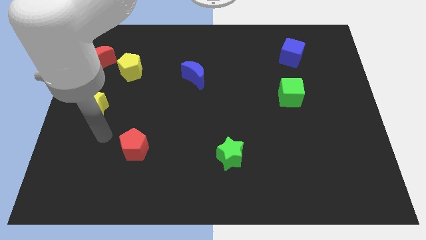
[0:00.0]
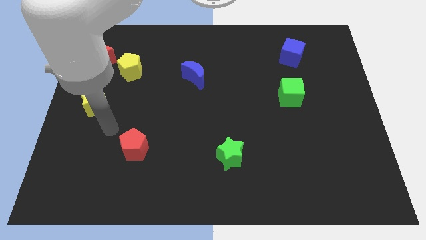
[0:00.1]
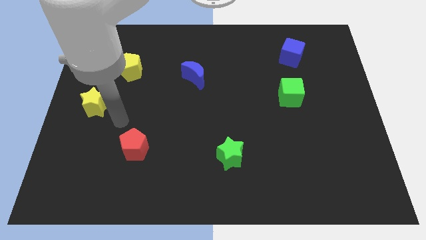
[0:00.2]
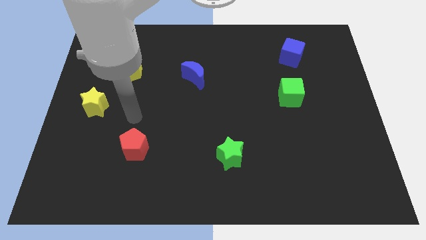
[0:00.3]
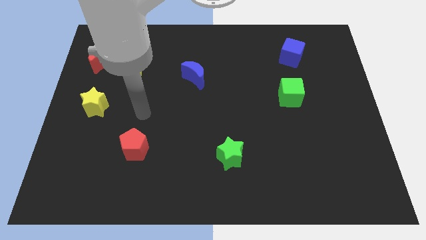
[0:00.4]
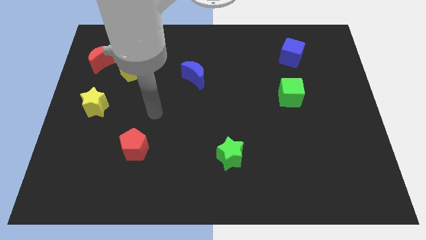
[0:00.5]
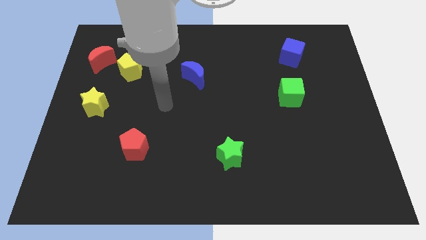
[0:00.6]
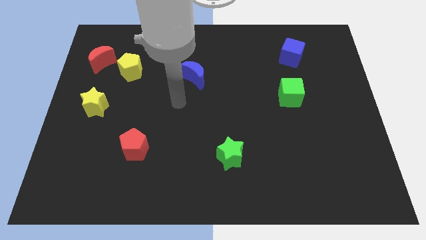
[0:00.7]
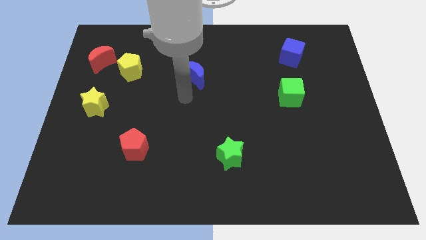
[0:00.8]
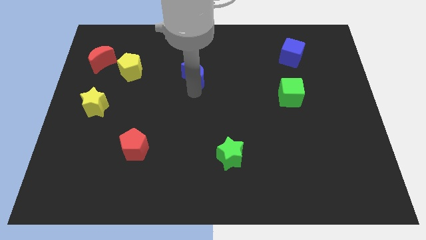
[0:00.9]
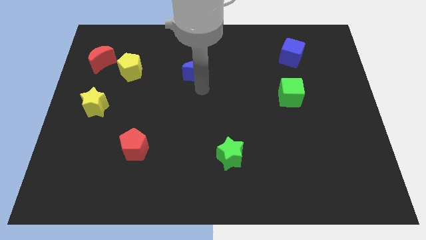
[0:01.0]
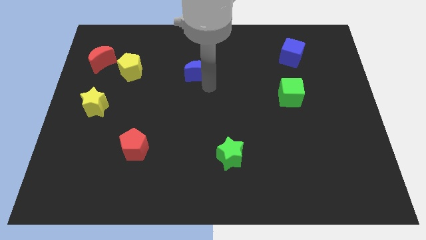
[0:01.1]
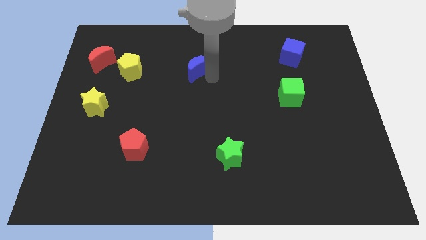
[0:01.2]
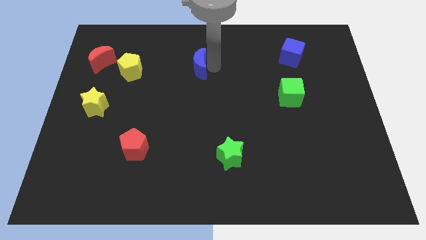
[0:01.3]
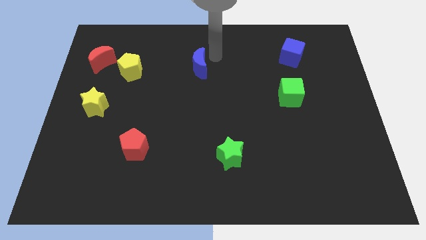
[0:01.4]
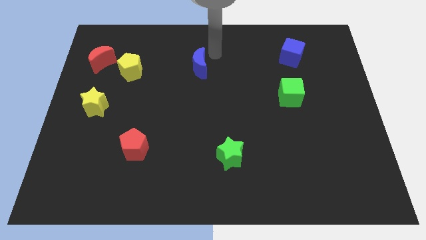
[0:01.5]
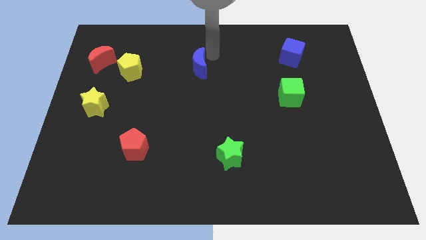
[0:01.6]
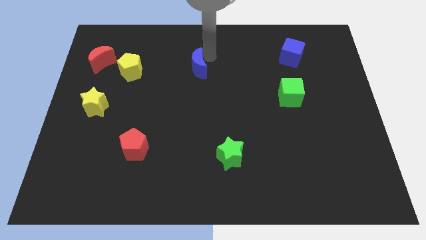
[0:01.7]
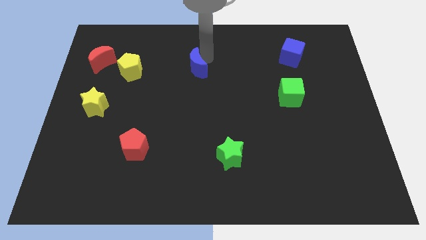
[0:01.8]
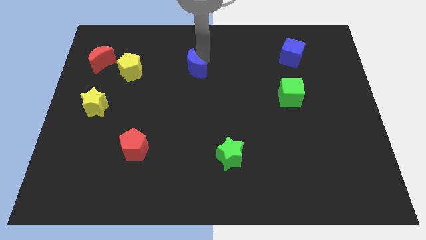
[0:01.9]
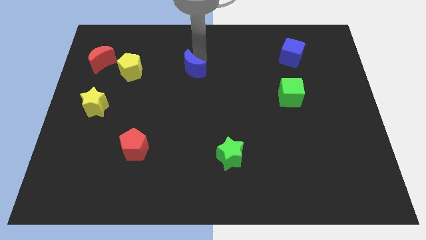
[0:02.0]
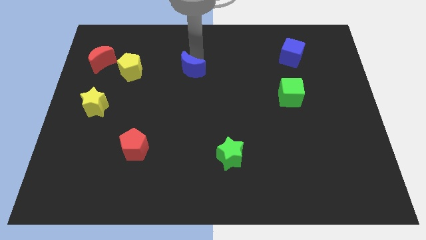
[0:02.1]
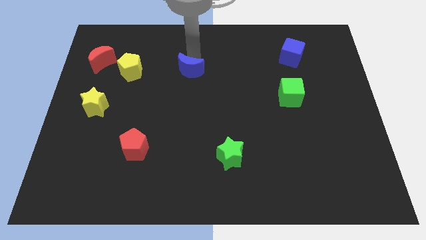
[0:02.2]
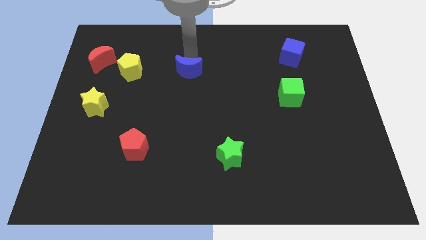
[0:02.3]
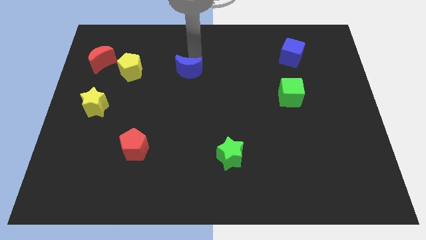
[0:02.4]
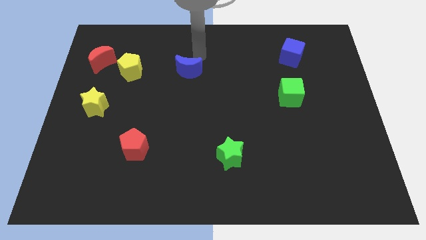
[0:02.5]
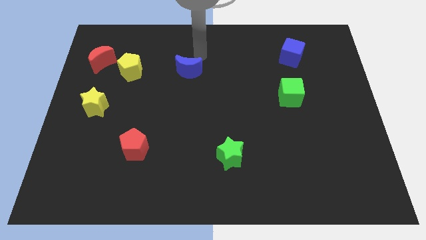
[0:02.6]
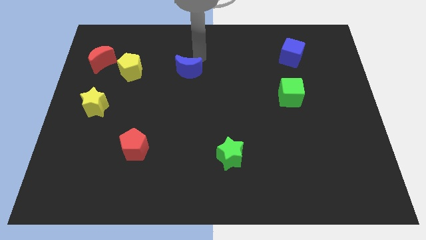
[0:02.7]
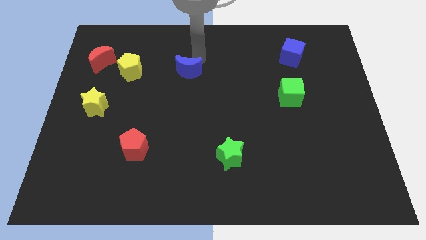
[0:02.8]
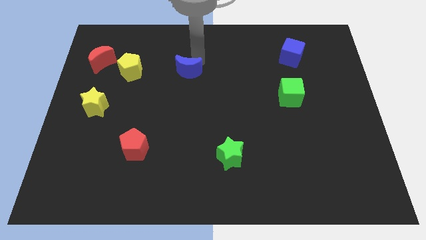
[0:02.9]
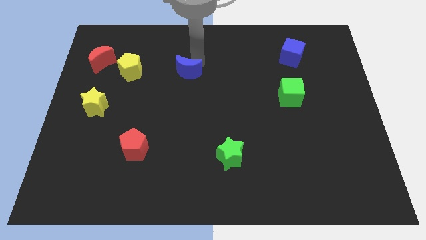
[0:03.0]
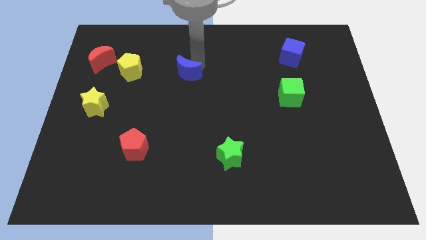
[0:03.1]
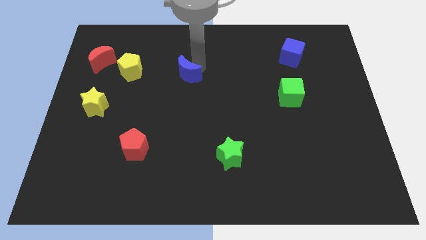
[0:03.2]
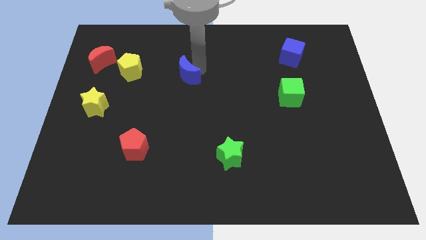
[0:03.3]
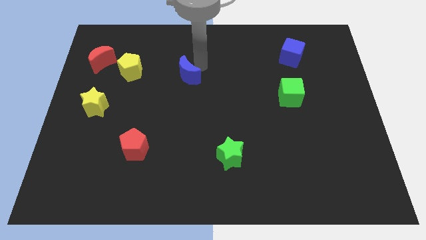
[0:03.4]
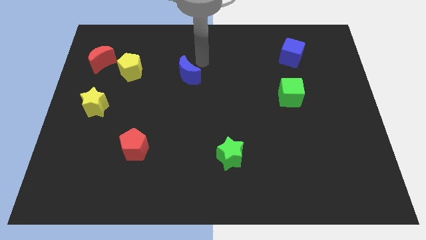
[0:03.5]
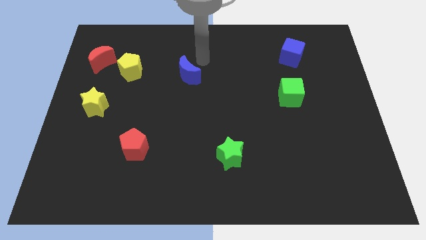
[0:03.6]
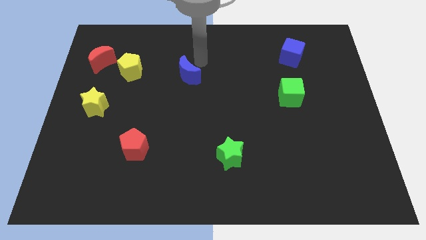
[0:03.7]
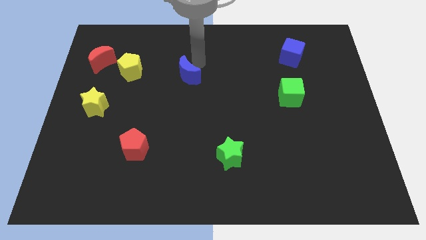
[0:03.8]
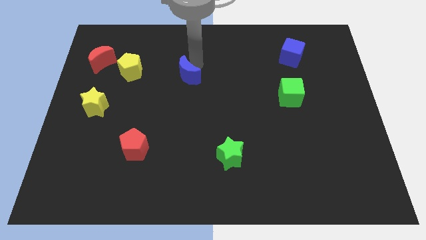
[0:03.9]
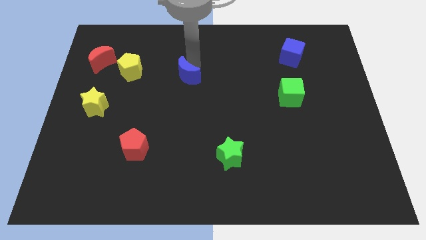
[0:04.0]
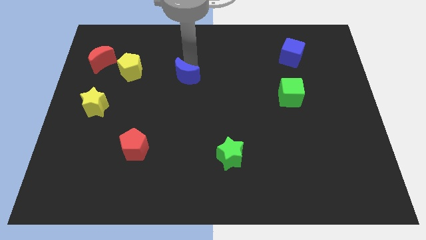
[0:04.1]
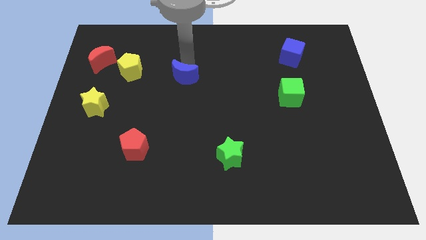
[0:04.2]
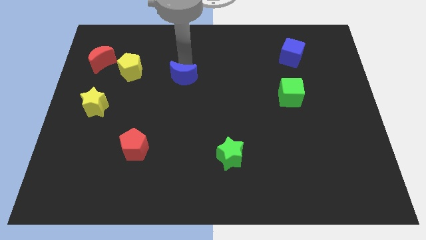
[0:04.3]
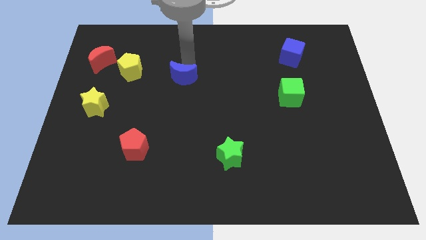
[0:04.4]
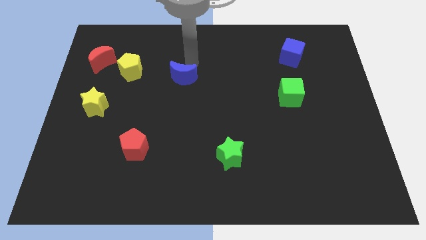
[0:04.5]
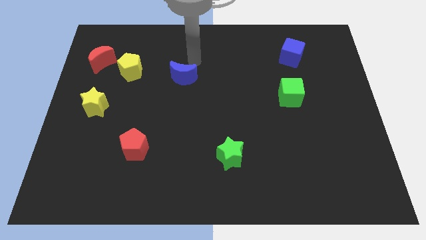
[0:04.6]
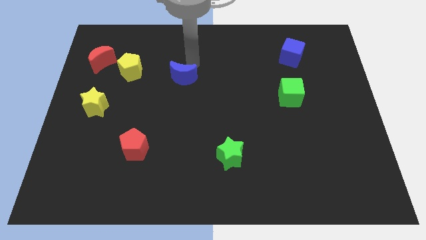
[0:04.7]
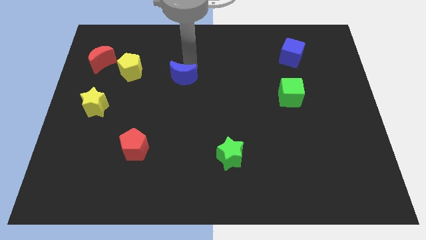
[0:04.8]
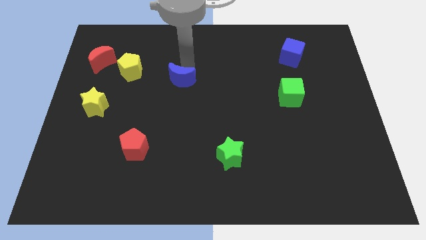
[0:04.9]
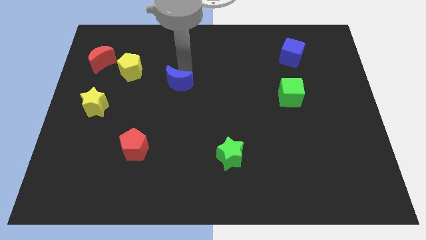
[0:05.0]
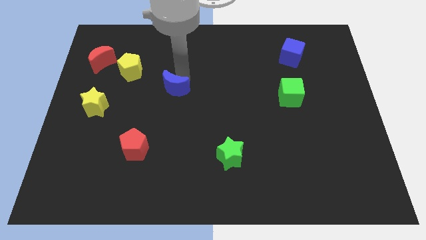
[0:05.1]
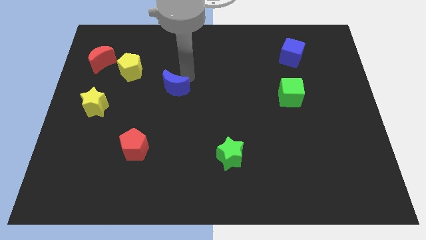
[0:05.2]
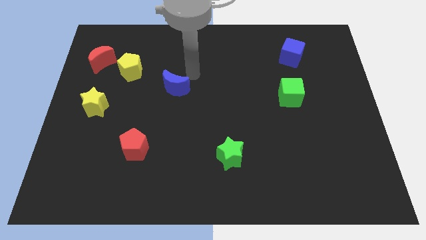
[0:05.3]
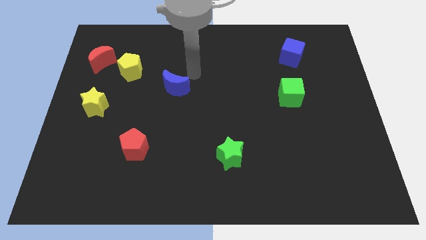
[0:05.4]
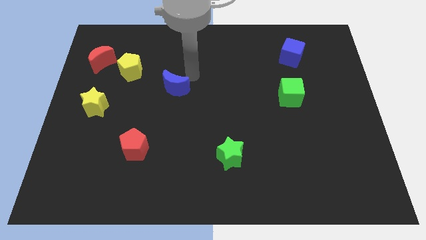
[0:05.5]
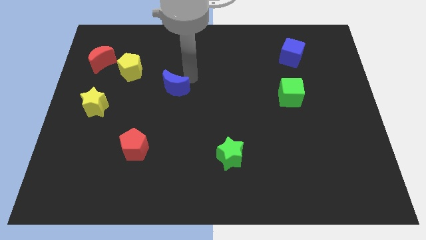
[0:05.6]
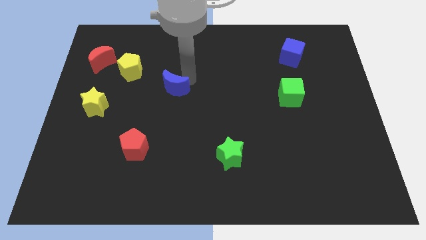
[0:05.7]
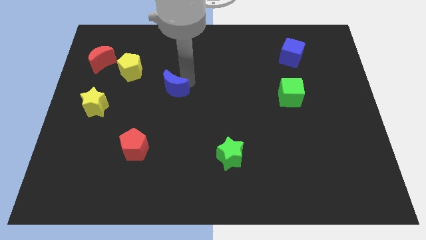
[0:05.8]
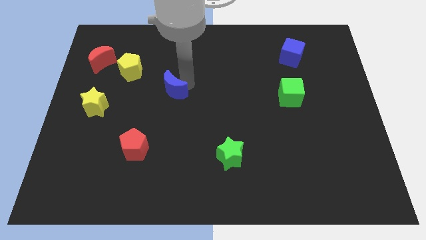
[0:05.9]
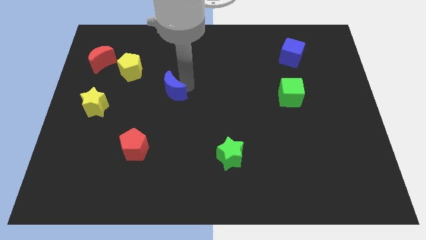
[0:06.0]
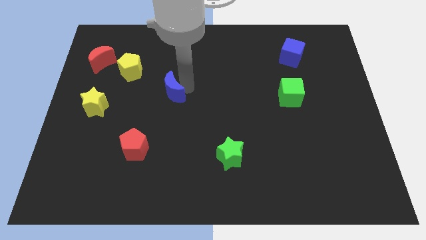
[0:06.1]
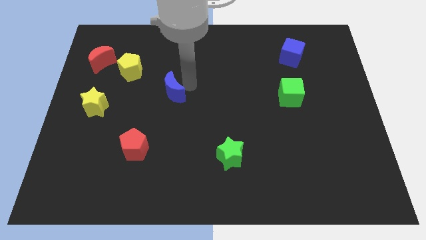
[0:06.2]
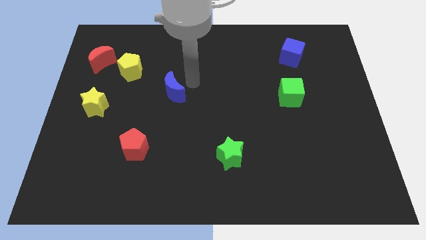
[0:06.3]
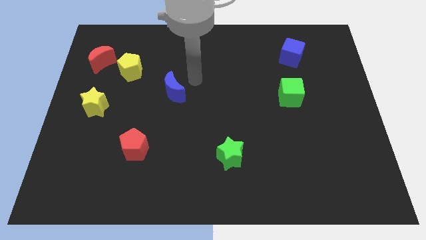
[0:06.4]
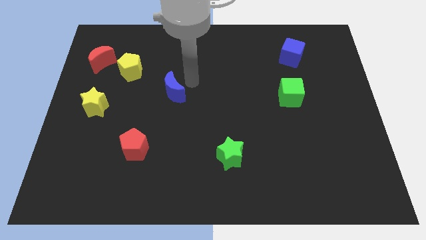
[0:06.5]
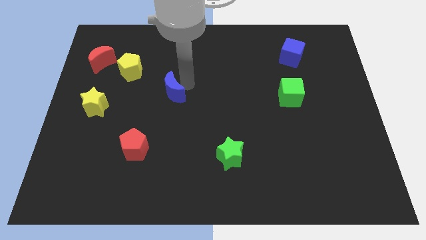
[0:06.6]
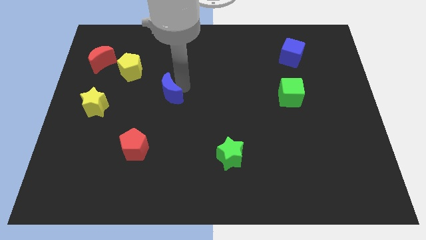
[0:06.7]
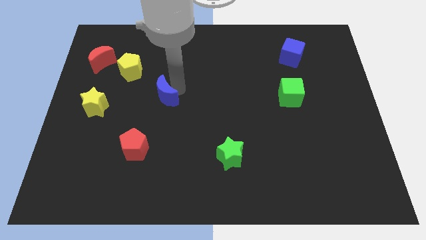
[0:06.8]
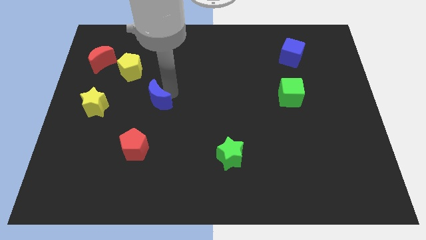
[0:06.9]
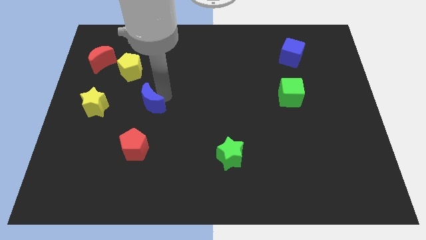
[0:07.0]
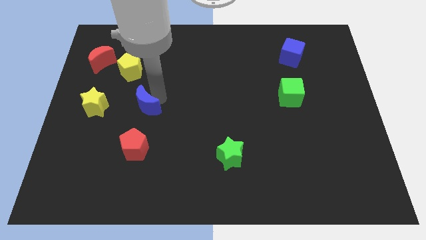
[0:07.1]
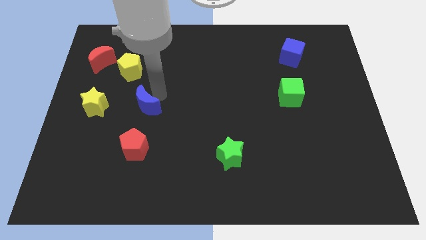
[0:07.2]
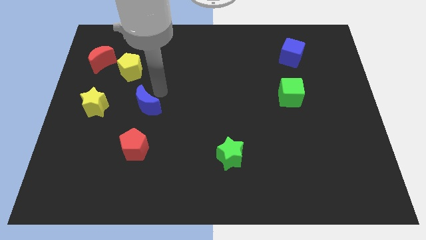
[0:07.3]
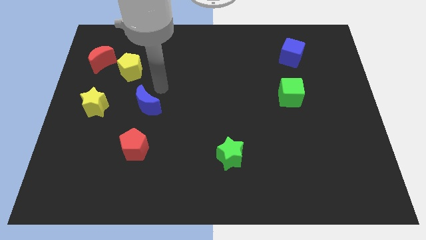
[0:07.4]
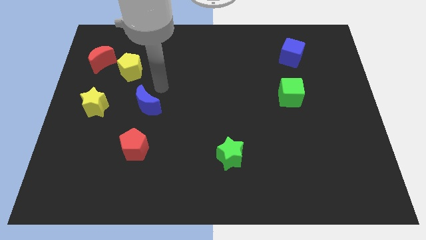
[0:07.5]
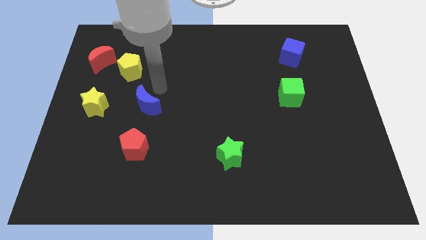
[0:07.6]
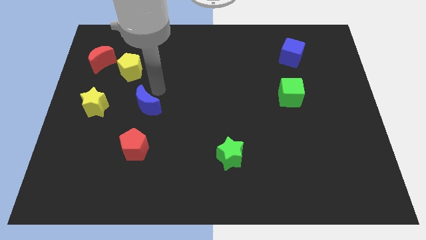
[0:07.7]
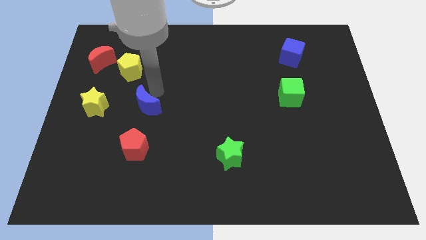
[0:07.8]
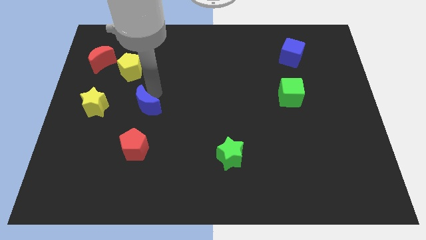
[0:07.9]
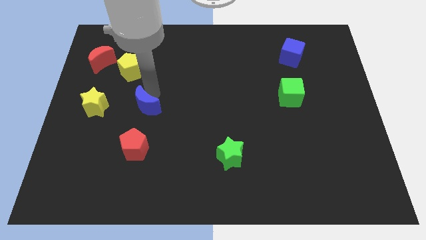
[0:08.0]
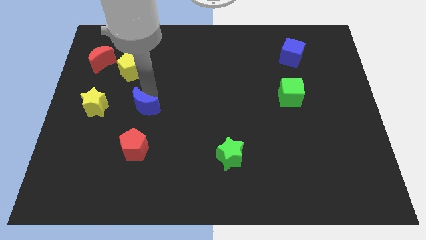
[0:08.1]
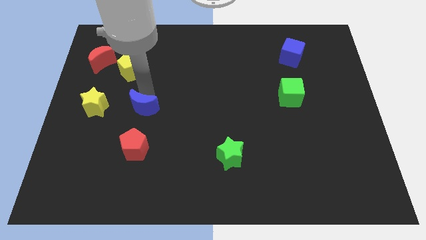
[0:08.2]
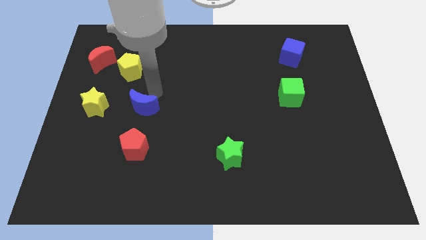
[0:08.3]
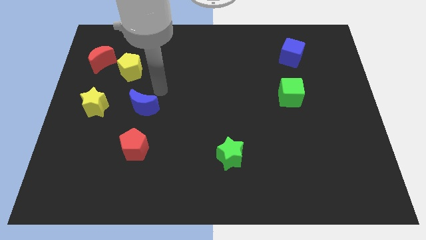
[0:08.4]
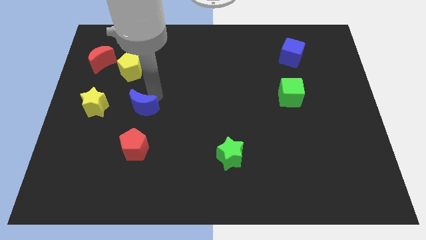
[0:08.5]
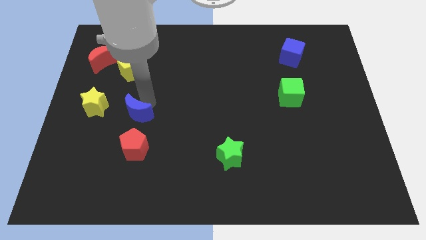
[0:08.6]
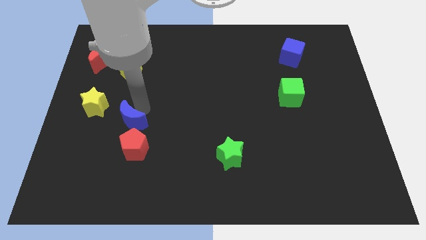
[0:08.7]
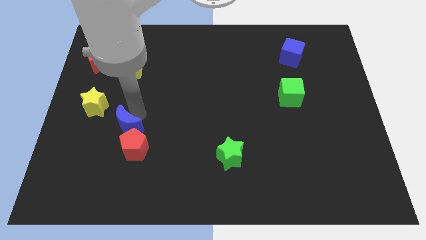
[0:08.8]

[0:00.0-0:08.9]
slide the blue moon downwards and left diagonally
